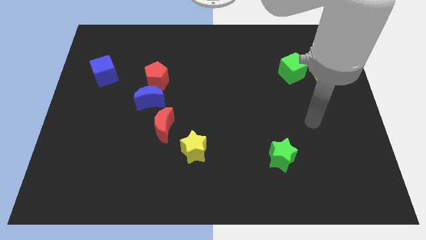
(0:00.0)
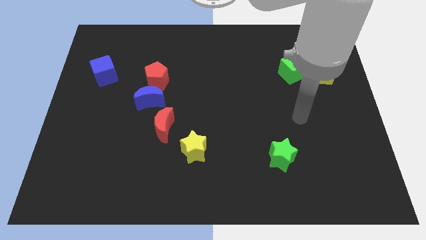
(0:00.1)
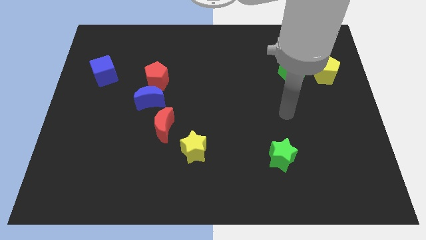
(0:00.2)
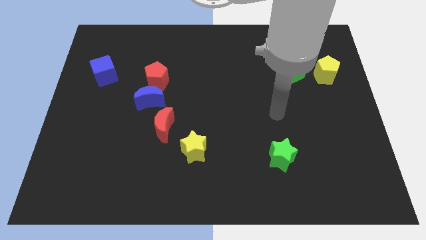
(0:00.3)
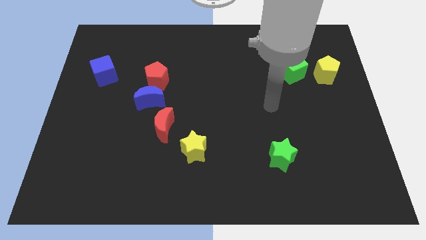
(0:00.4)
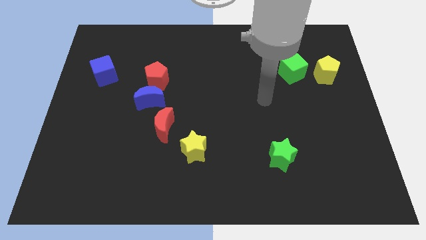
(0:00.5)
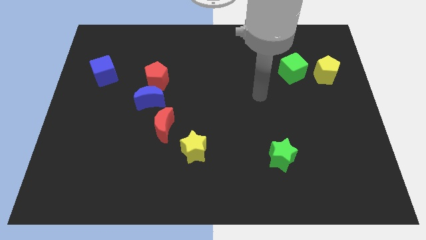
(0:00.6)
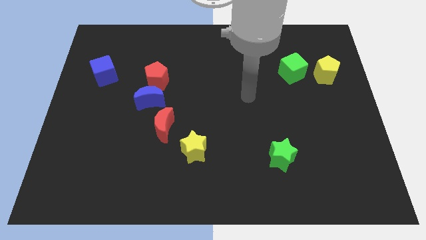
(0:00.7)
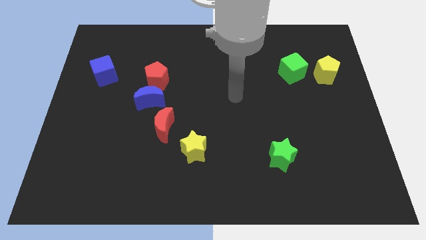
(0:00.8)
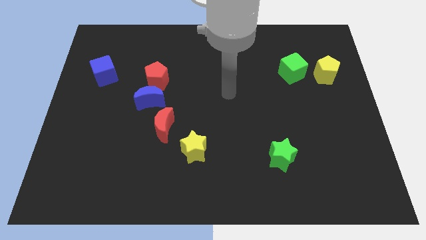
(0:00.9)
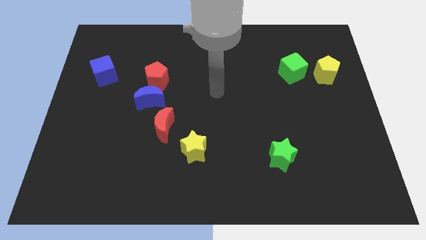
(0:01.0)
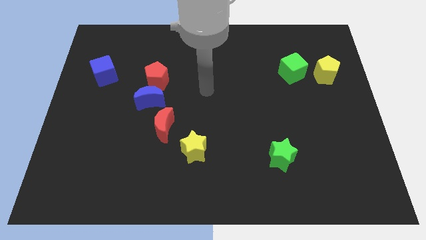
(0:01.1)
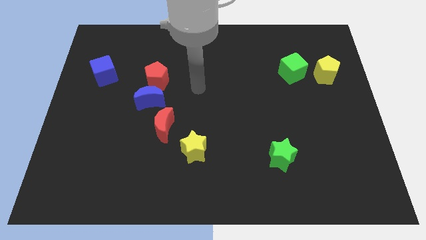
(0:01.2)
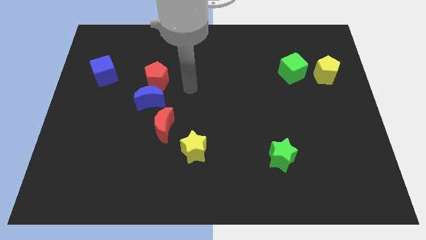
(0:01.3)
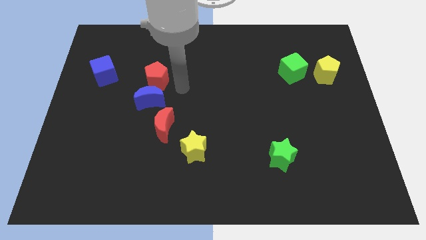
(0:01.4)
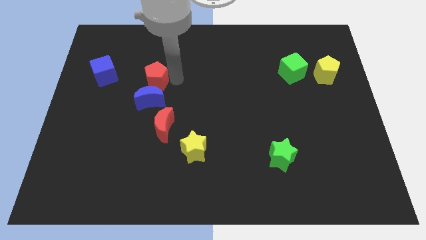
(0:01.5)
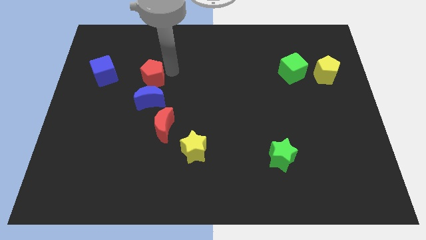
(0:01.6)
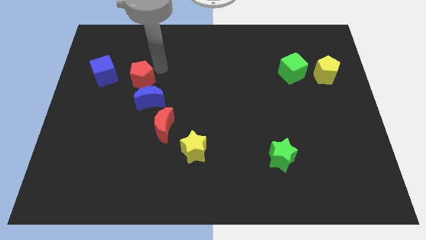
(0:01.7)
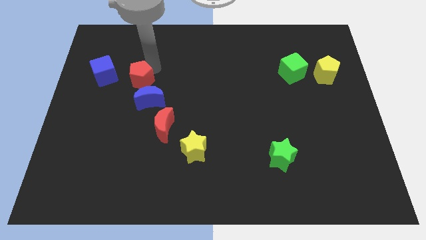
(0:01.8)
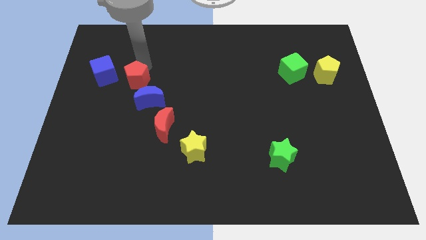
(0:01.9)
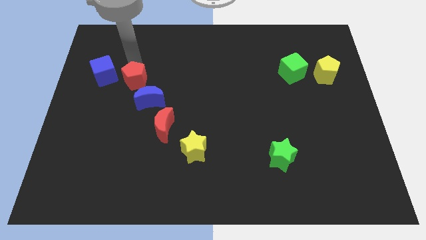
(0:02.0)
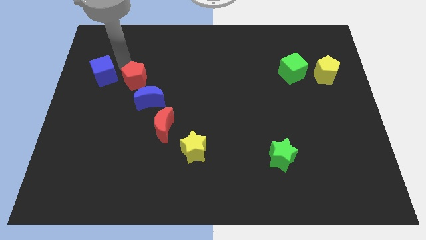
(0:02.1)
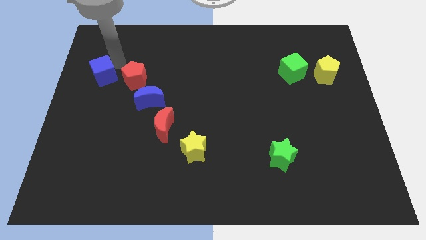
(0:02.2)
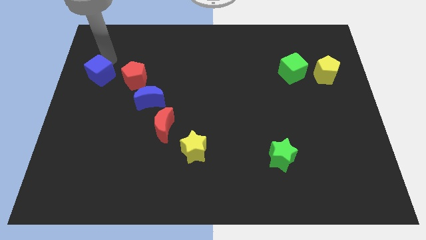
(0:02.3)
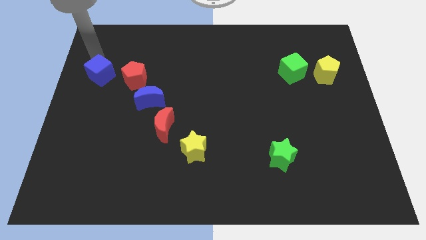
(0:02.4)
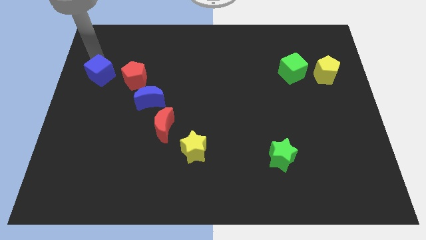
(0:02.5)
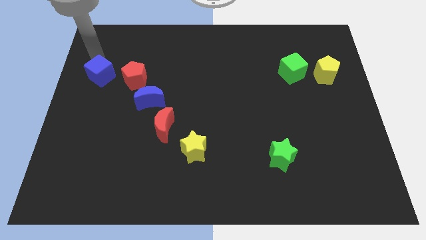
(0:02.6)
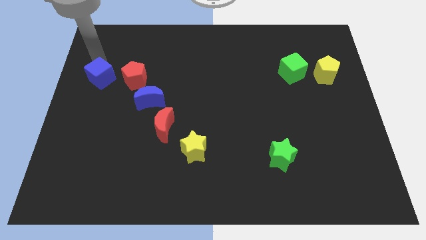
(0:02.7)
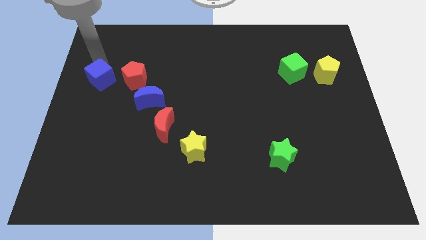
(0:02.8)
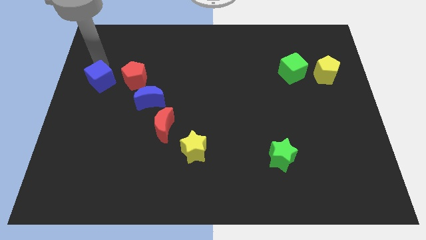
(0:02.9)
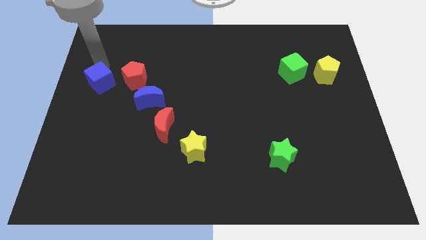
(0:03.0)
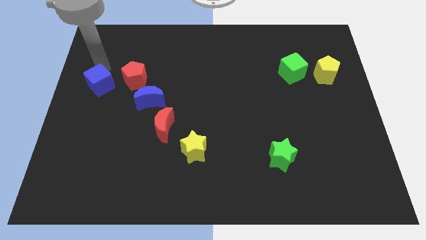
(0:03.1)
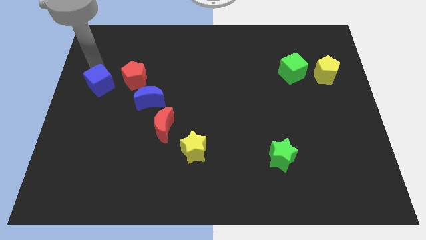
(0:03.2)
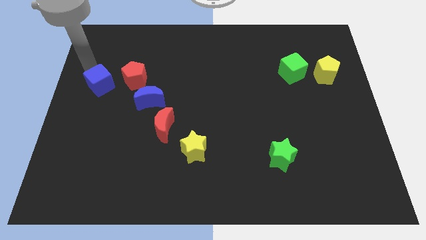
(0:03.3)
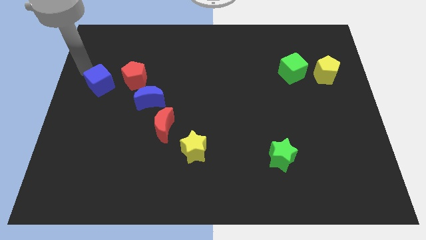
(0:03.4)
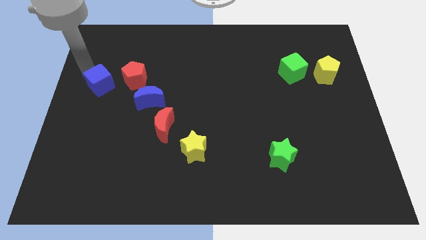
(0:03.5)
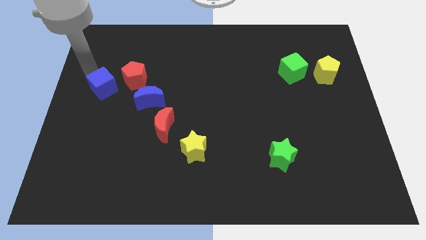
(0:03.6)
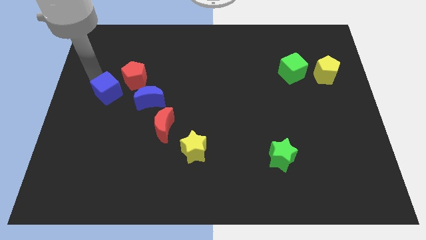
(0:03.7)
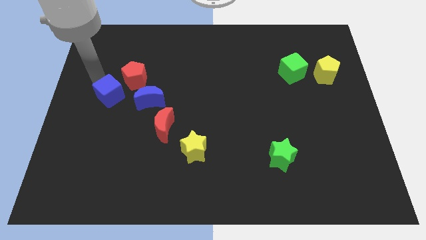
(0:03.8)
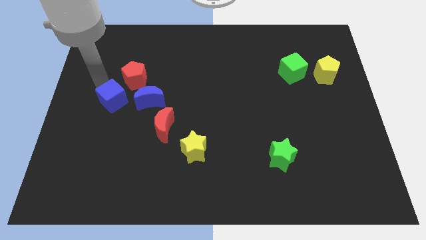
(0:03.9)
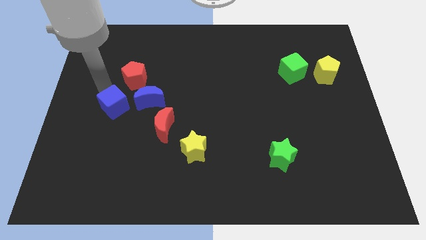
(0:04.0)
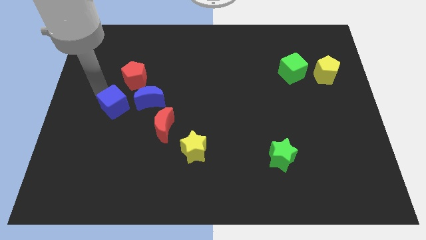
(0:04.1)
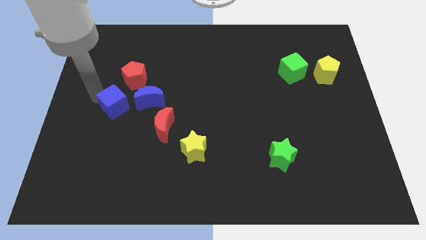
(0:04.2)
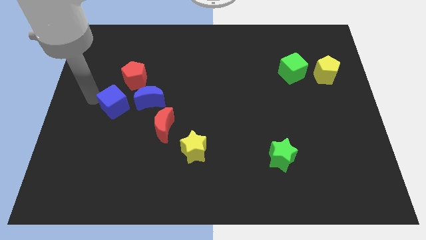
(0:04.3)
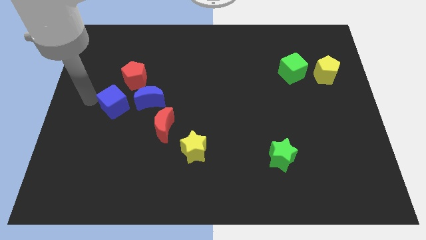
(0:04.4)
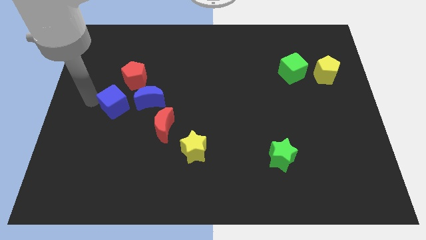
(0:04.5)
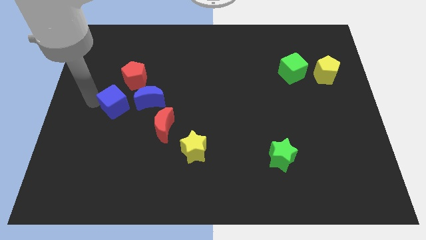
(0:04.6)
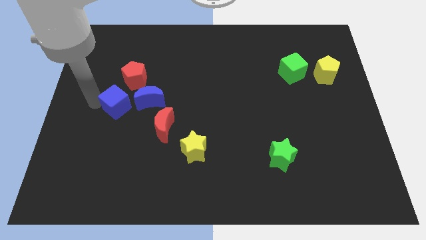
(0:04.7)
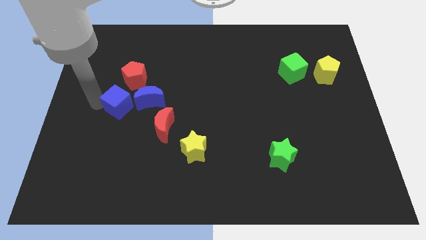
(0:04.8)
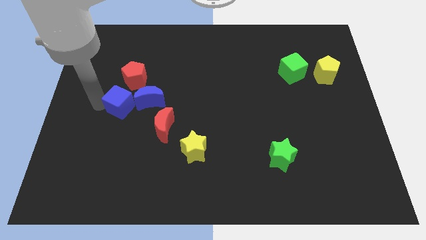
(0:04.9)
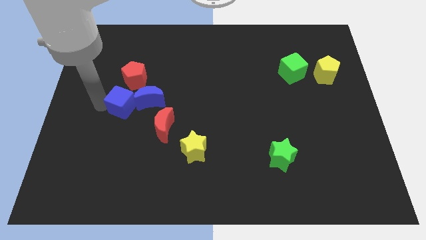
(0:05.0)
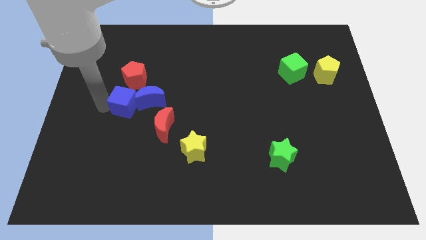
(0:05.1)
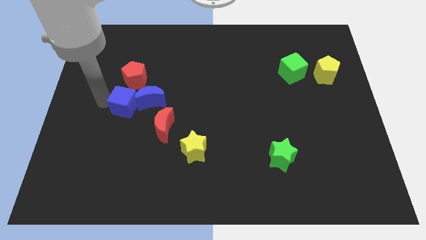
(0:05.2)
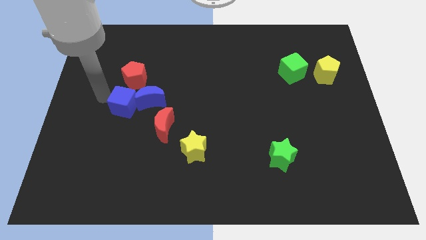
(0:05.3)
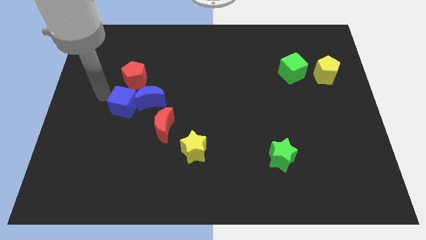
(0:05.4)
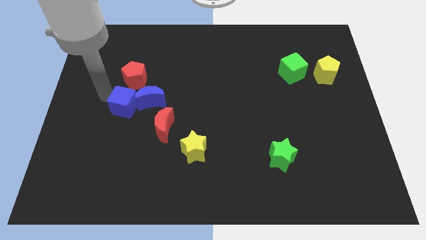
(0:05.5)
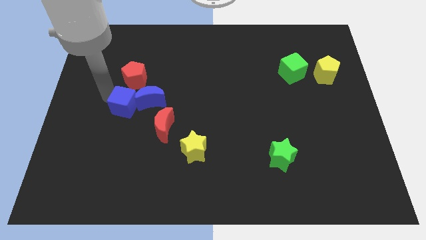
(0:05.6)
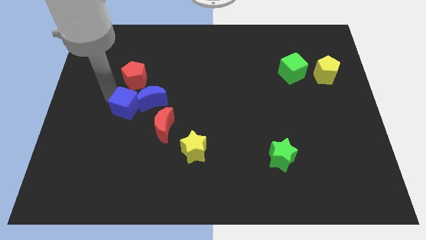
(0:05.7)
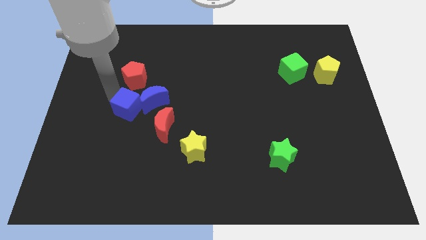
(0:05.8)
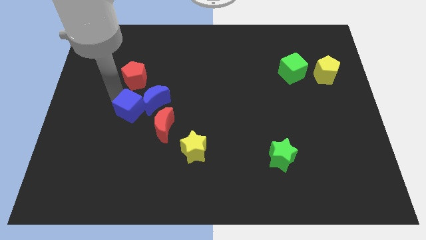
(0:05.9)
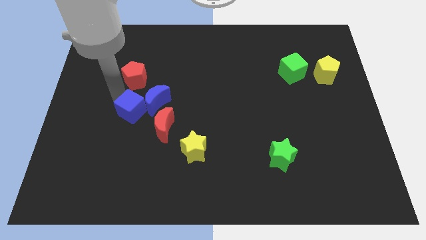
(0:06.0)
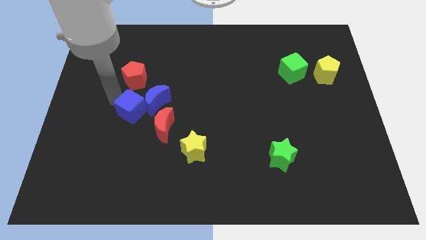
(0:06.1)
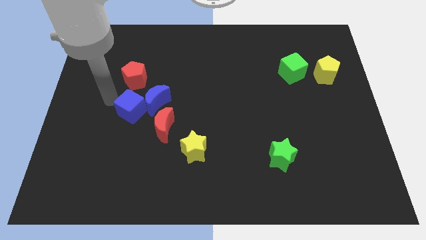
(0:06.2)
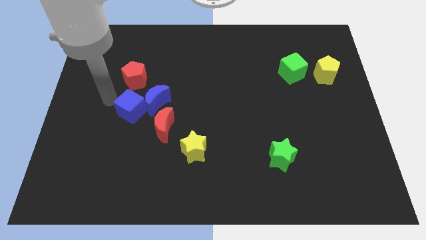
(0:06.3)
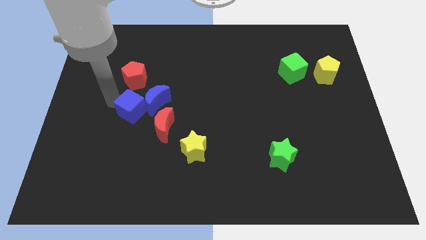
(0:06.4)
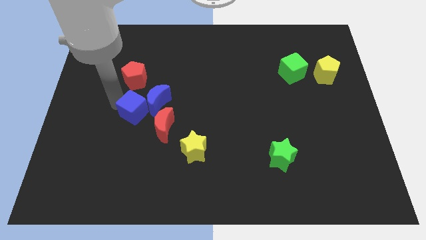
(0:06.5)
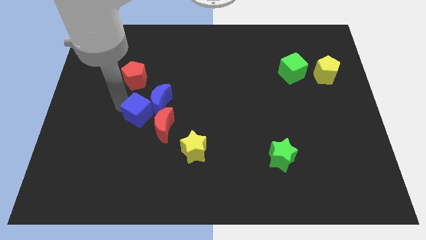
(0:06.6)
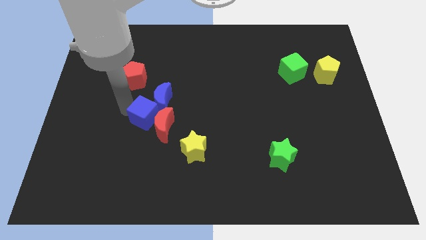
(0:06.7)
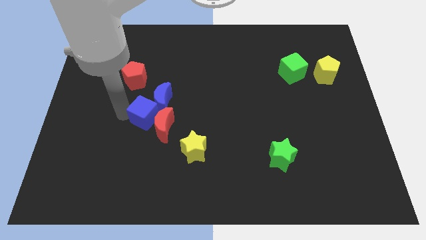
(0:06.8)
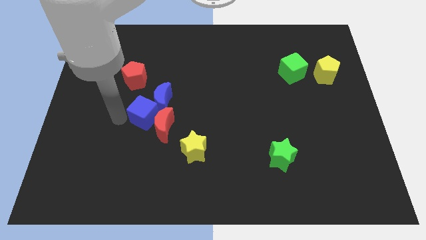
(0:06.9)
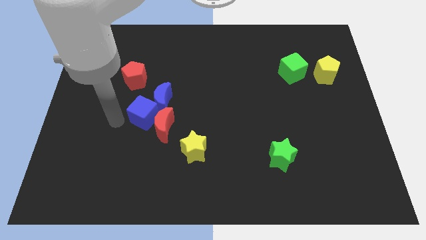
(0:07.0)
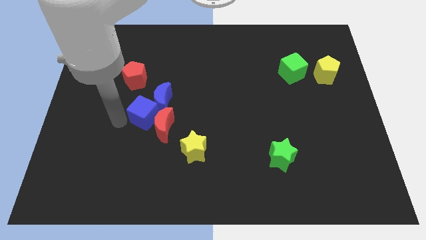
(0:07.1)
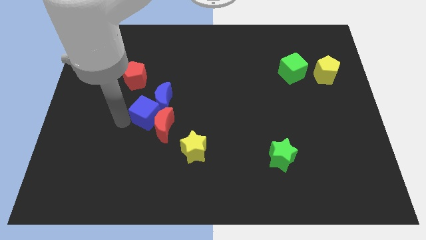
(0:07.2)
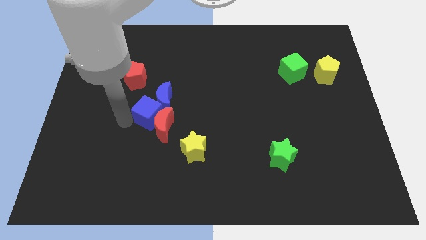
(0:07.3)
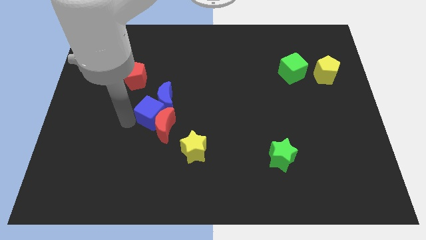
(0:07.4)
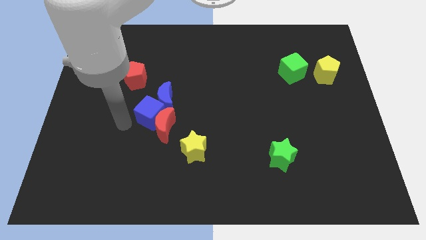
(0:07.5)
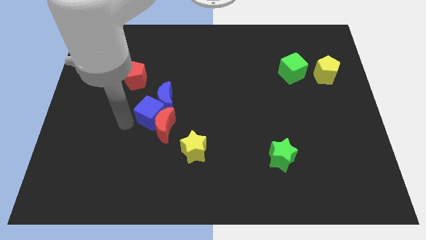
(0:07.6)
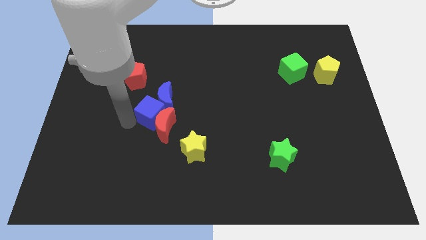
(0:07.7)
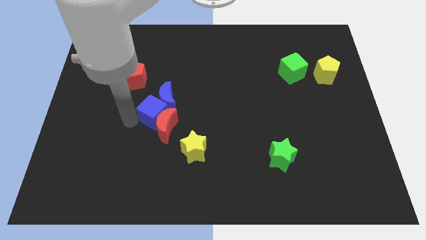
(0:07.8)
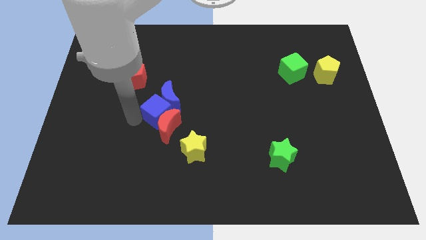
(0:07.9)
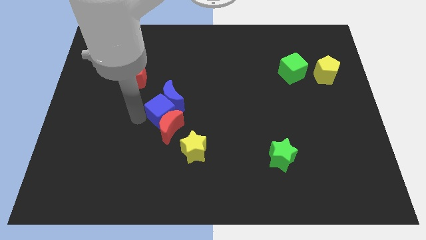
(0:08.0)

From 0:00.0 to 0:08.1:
slide the blue cube to the top right side of the red moon
